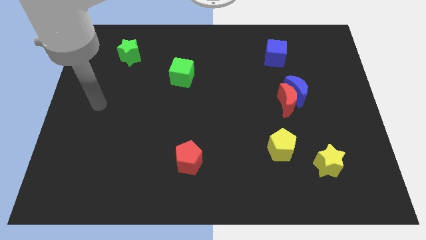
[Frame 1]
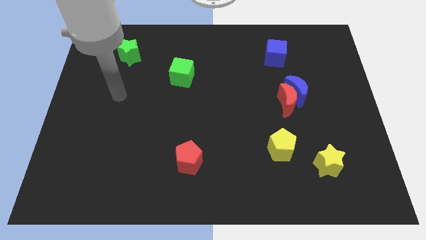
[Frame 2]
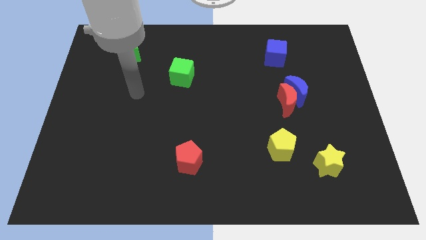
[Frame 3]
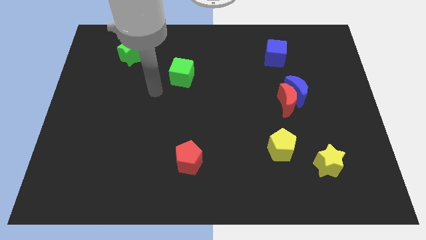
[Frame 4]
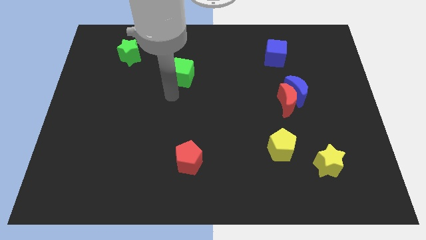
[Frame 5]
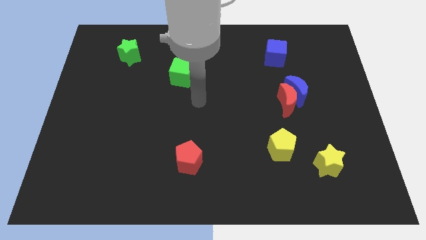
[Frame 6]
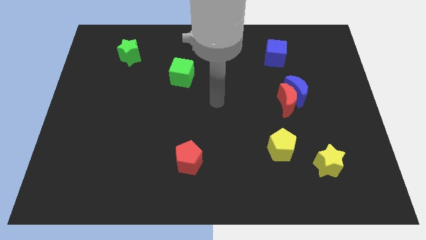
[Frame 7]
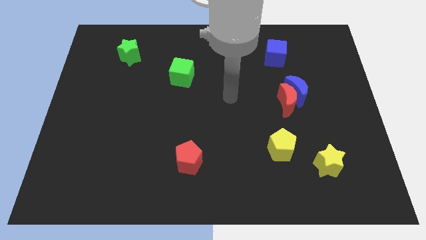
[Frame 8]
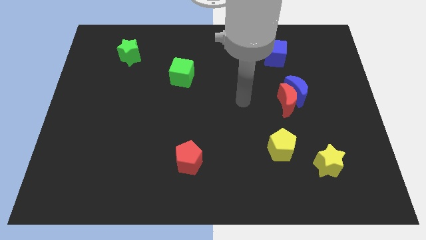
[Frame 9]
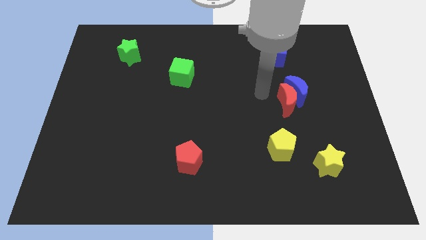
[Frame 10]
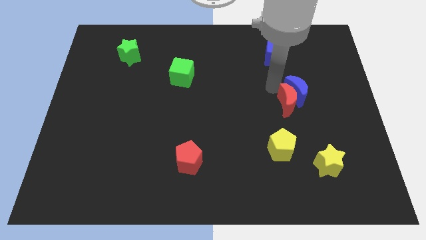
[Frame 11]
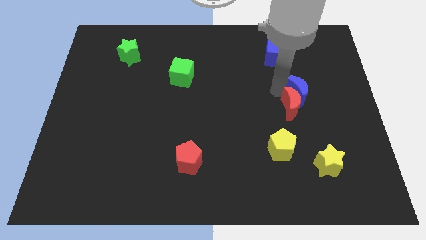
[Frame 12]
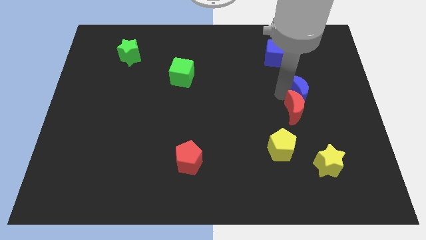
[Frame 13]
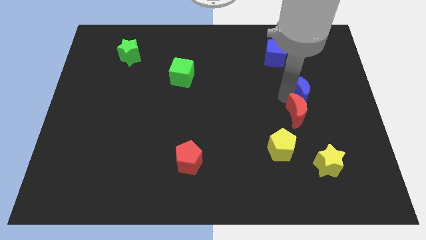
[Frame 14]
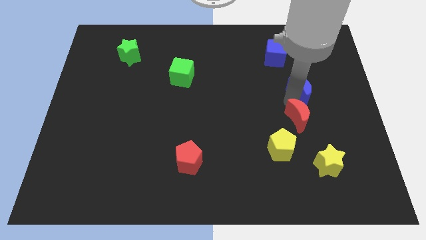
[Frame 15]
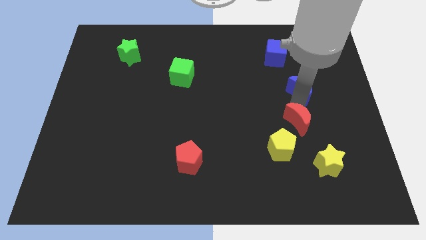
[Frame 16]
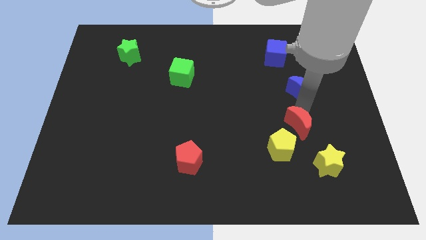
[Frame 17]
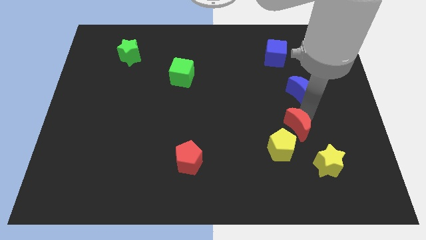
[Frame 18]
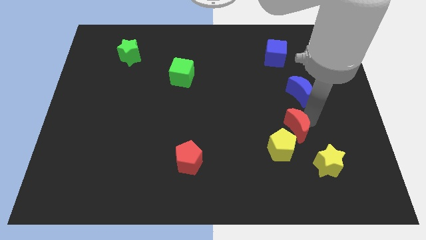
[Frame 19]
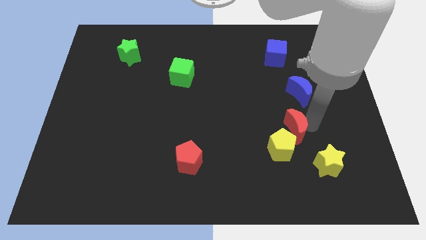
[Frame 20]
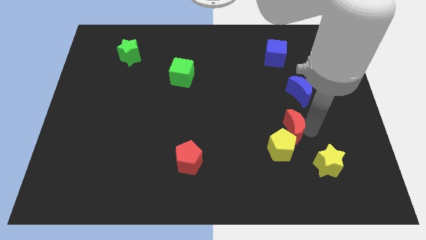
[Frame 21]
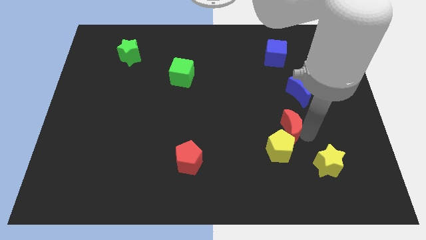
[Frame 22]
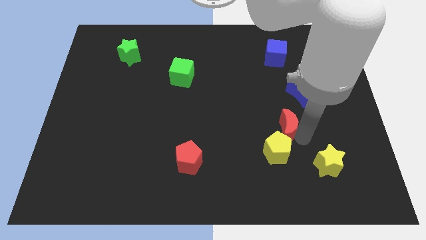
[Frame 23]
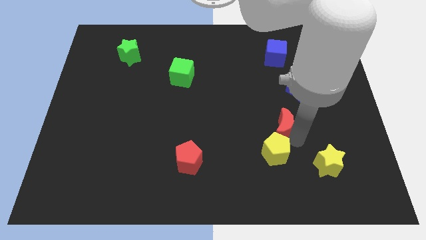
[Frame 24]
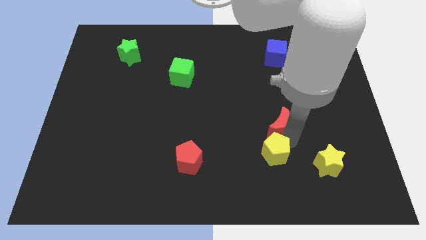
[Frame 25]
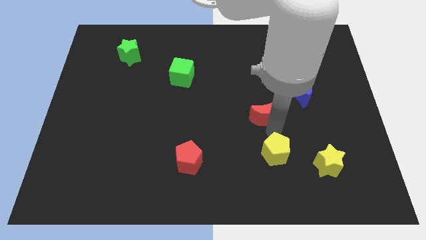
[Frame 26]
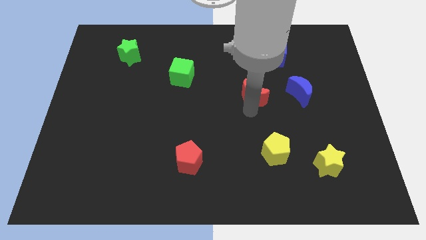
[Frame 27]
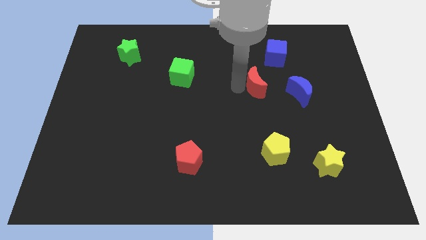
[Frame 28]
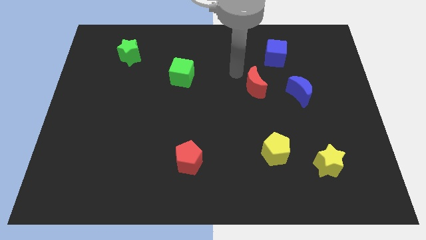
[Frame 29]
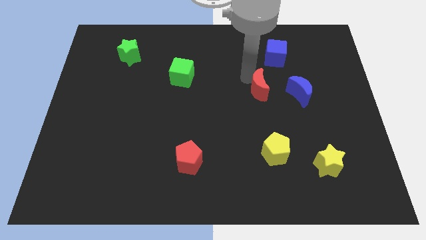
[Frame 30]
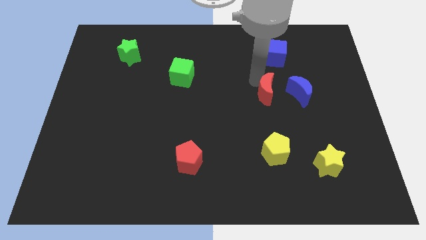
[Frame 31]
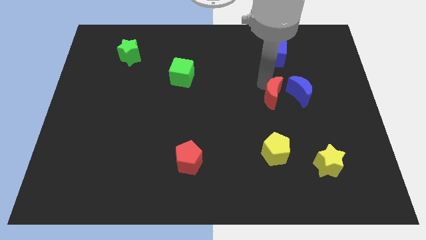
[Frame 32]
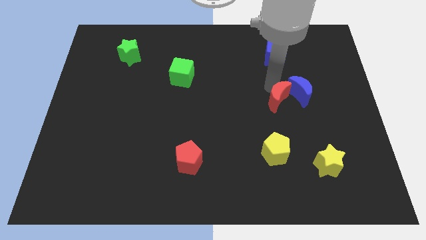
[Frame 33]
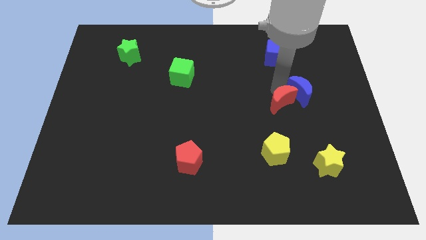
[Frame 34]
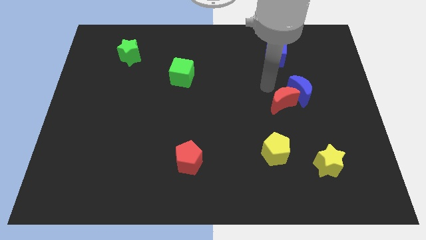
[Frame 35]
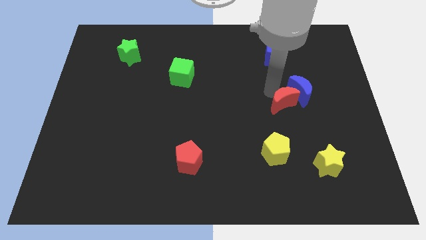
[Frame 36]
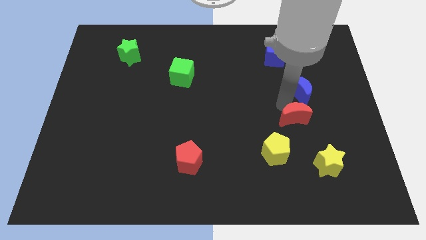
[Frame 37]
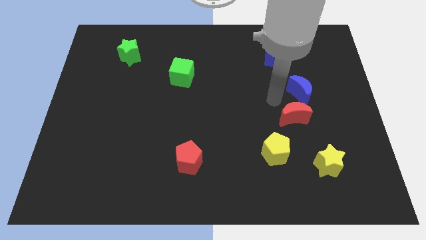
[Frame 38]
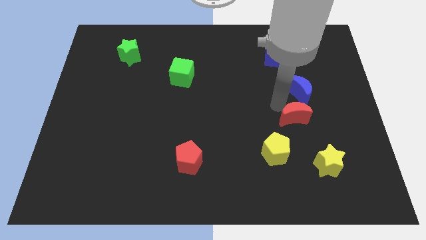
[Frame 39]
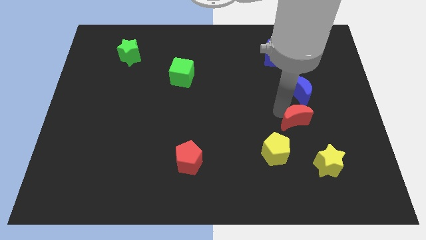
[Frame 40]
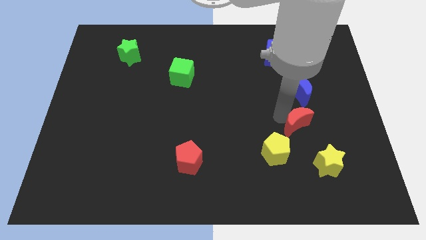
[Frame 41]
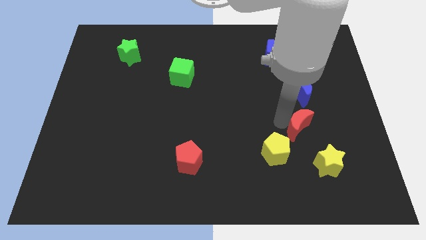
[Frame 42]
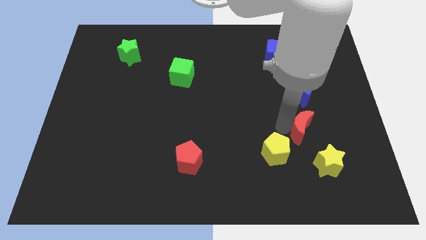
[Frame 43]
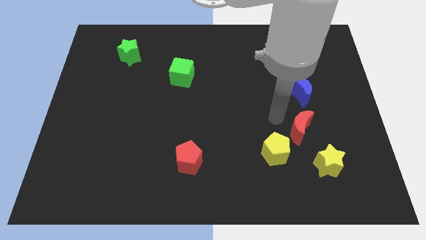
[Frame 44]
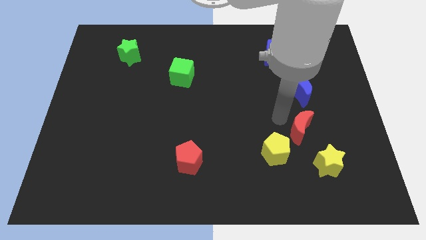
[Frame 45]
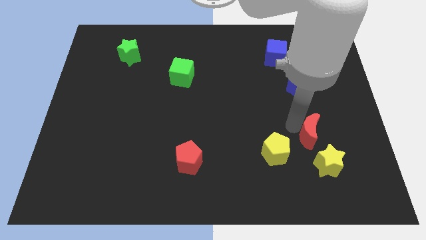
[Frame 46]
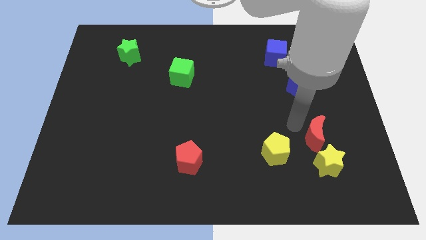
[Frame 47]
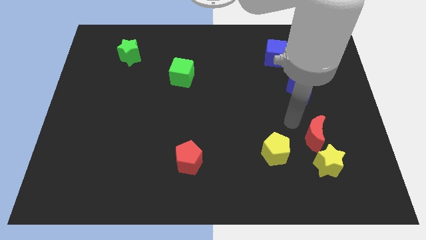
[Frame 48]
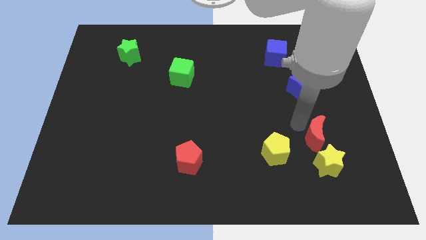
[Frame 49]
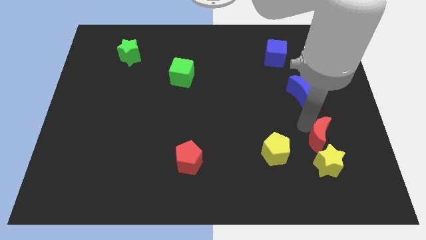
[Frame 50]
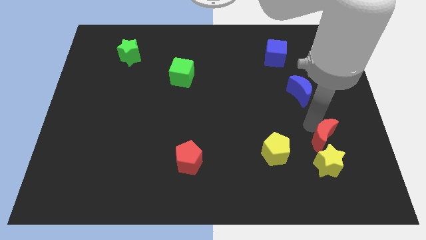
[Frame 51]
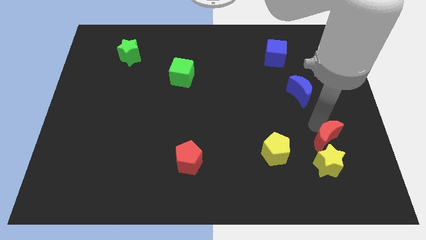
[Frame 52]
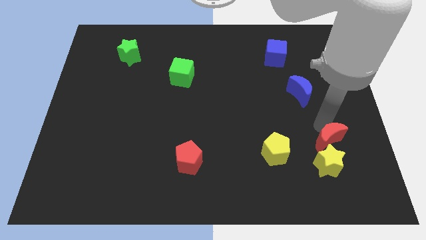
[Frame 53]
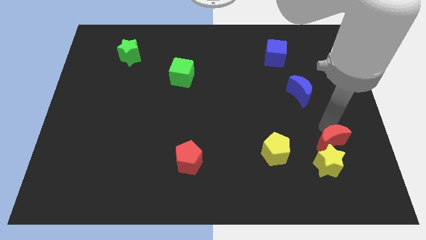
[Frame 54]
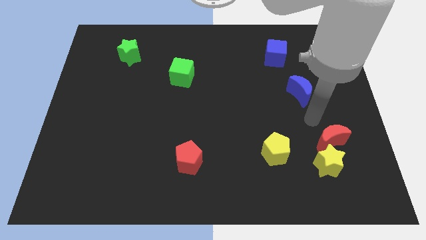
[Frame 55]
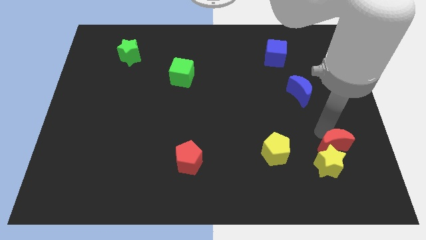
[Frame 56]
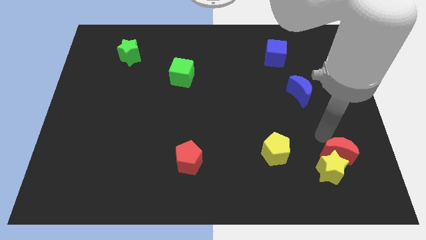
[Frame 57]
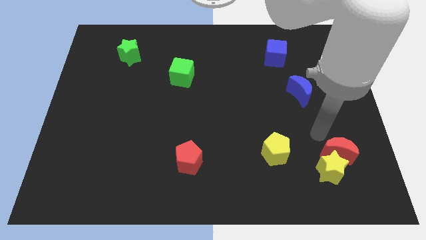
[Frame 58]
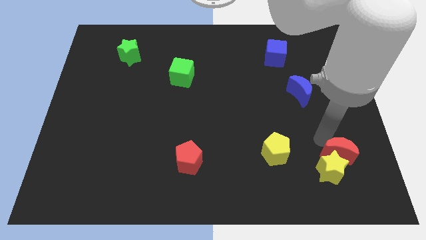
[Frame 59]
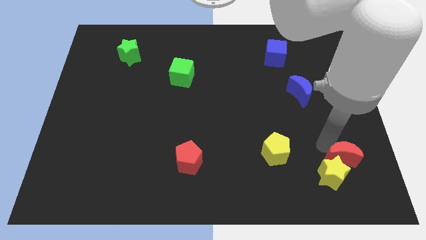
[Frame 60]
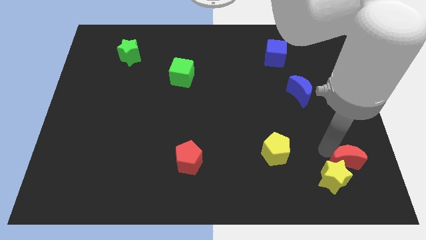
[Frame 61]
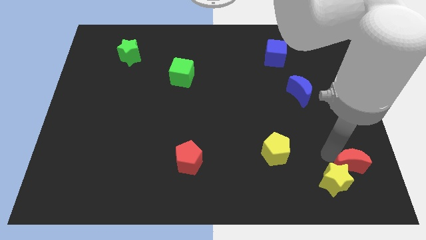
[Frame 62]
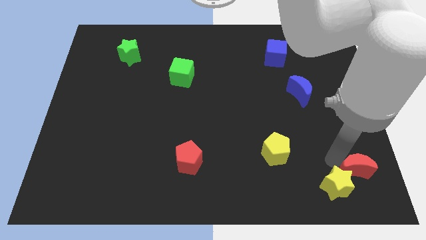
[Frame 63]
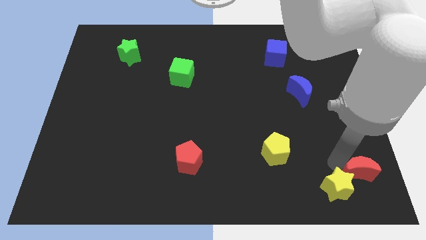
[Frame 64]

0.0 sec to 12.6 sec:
push the red moon to the lower right corner
